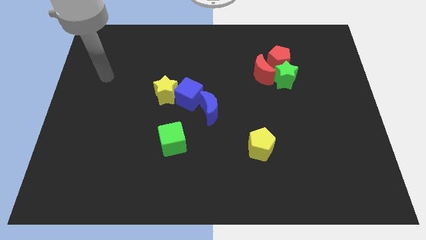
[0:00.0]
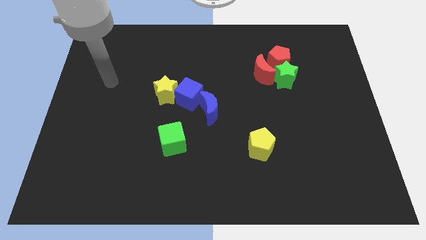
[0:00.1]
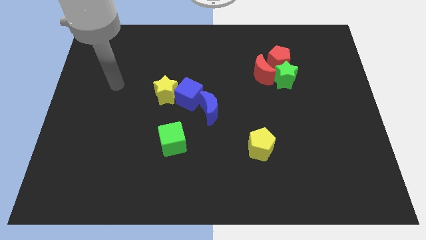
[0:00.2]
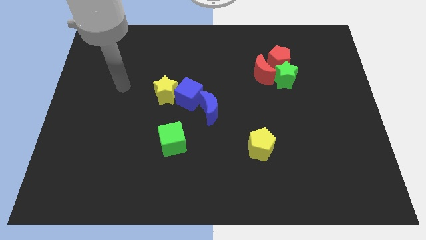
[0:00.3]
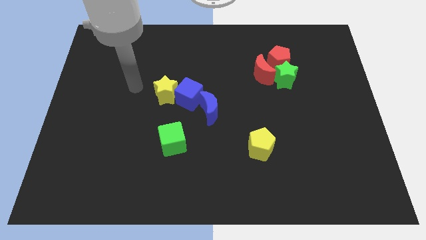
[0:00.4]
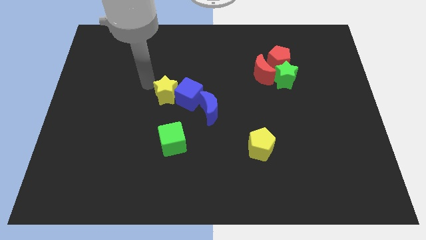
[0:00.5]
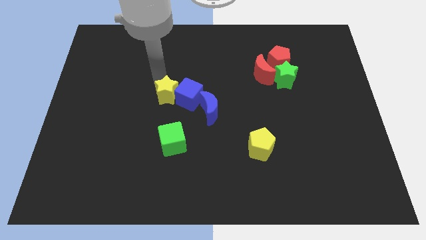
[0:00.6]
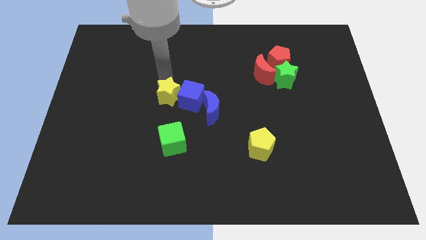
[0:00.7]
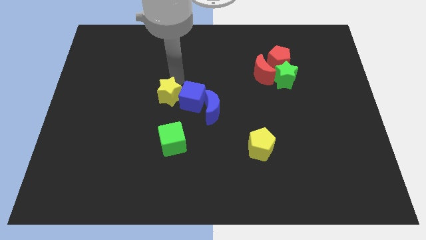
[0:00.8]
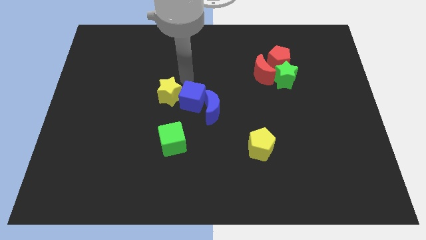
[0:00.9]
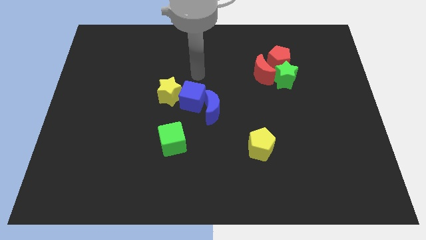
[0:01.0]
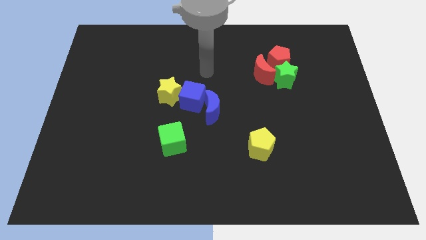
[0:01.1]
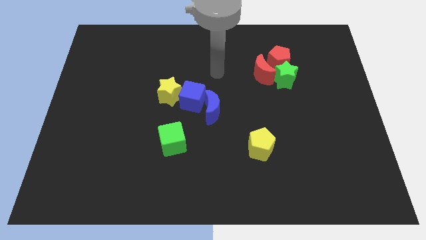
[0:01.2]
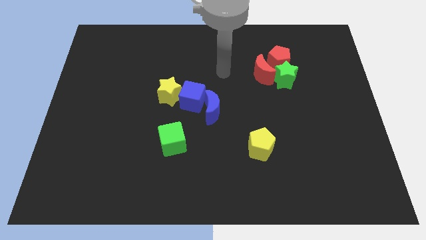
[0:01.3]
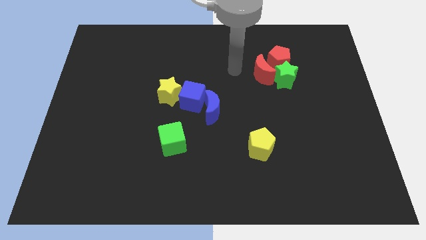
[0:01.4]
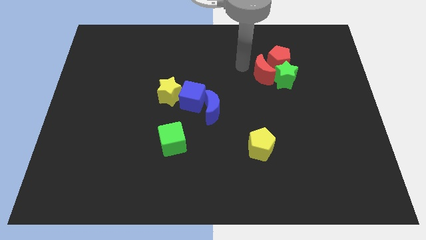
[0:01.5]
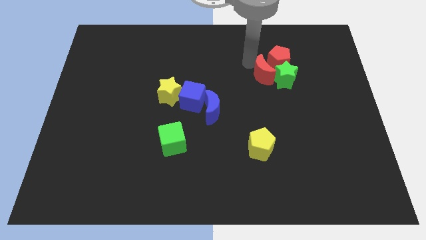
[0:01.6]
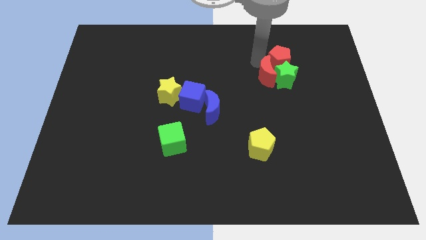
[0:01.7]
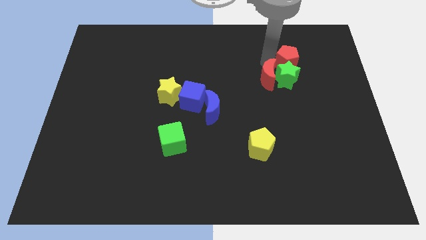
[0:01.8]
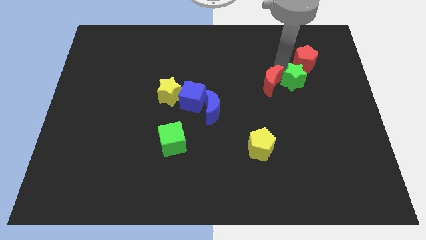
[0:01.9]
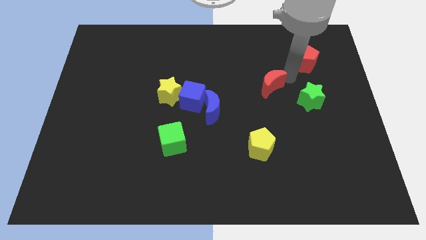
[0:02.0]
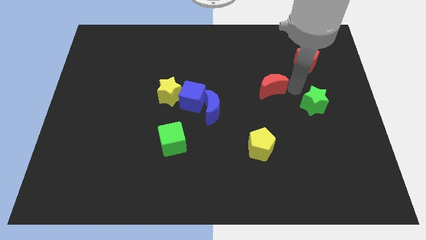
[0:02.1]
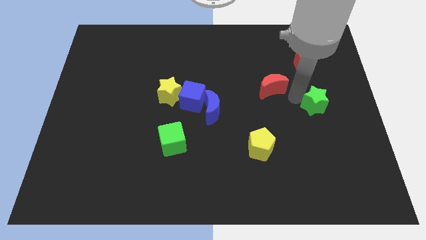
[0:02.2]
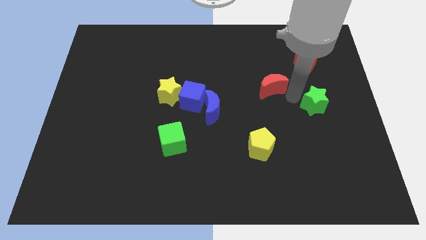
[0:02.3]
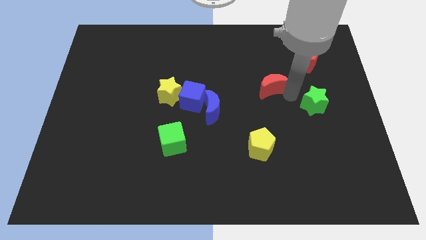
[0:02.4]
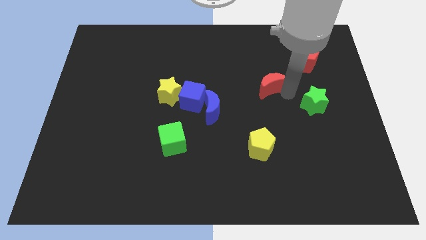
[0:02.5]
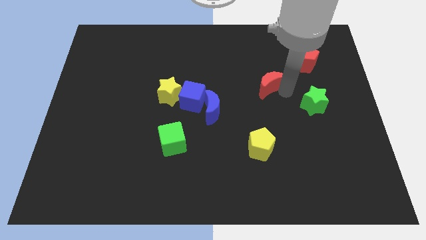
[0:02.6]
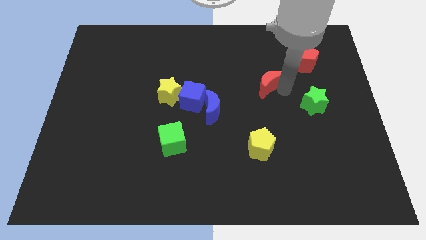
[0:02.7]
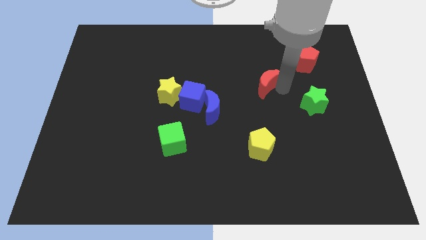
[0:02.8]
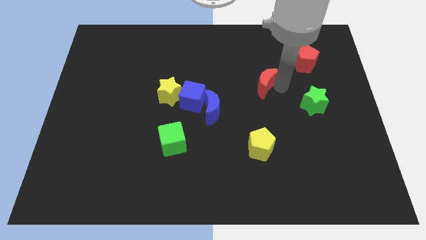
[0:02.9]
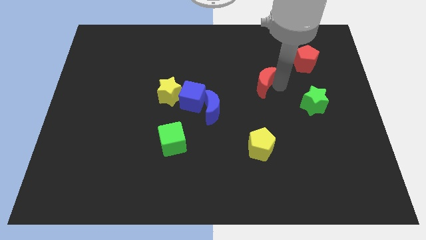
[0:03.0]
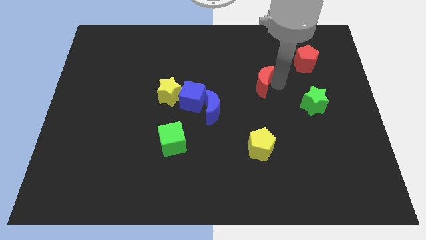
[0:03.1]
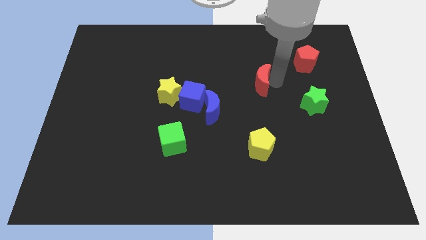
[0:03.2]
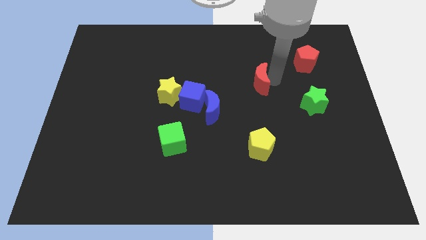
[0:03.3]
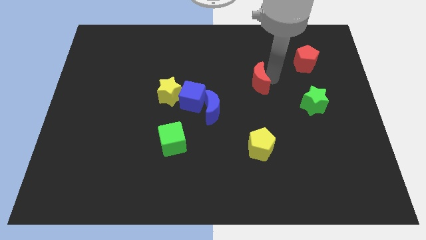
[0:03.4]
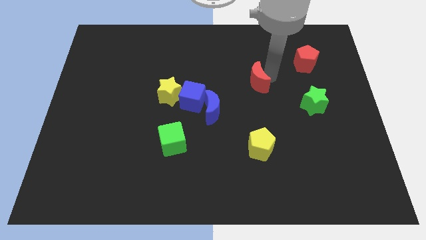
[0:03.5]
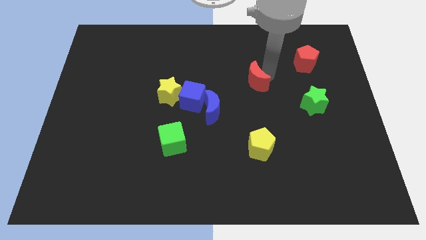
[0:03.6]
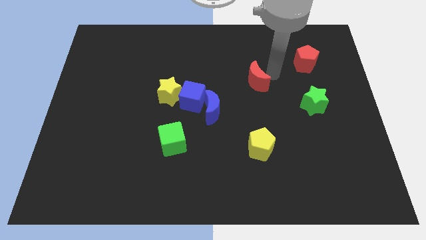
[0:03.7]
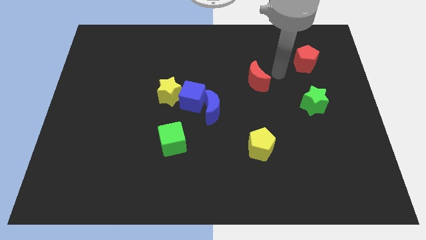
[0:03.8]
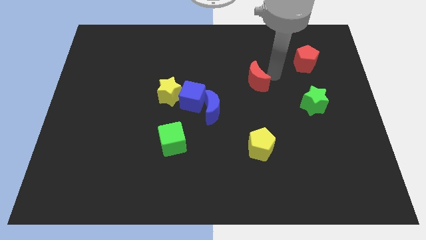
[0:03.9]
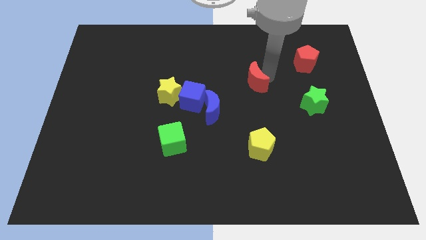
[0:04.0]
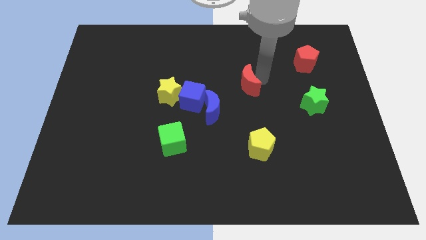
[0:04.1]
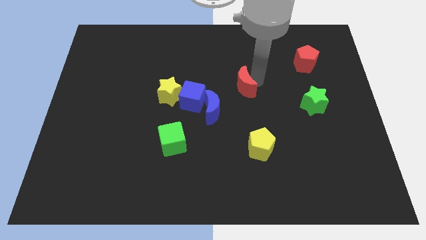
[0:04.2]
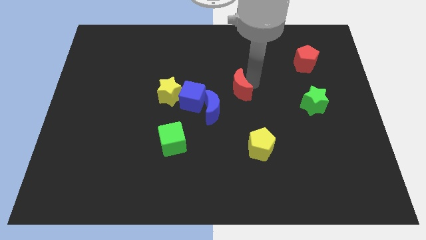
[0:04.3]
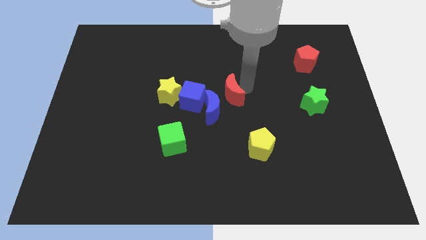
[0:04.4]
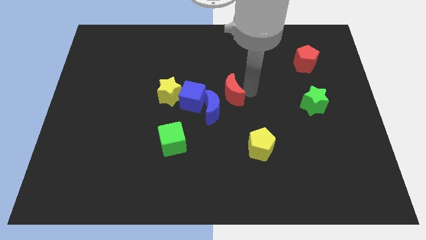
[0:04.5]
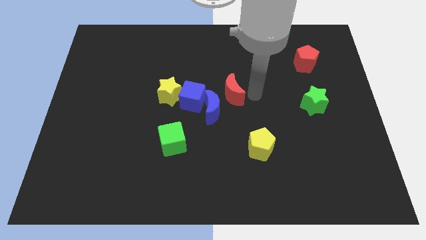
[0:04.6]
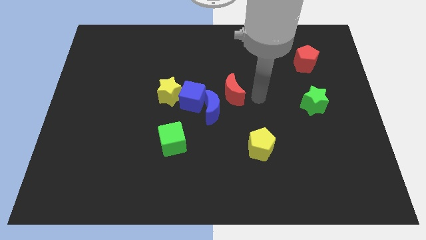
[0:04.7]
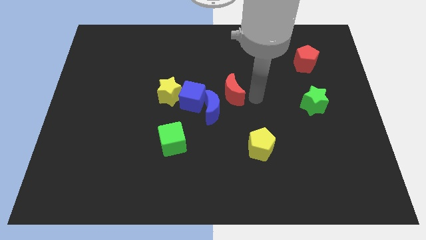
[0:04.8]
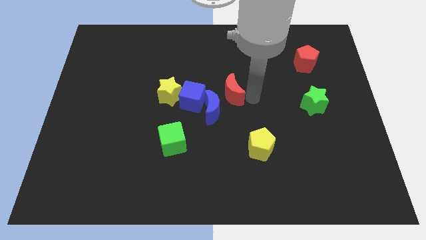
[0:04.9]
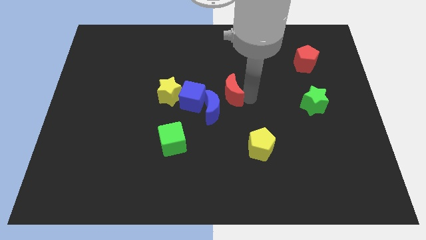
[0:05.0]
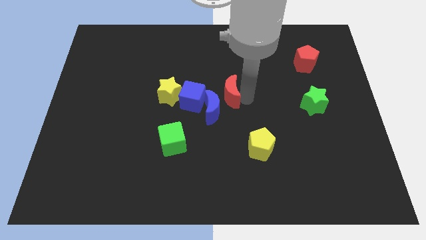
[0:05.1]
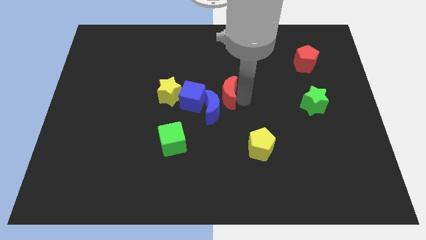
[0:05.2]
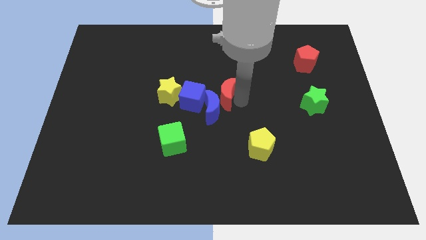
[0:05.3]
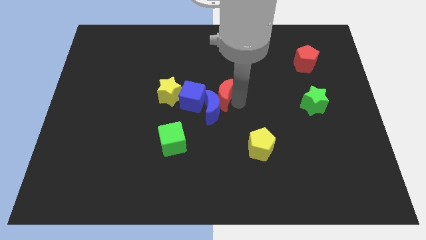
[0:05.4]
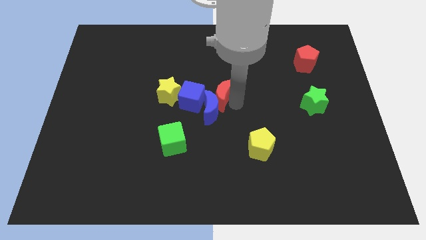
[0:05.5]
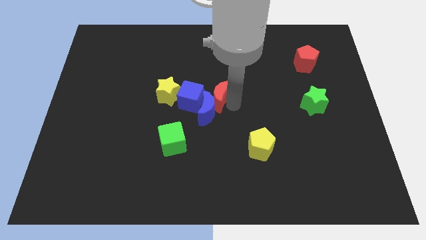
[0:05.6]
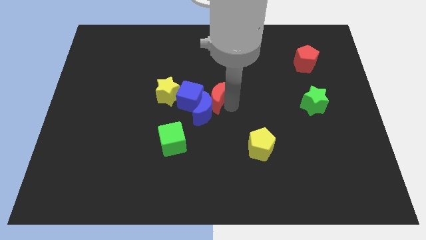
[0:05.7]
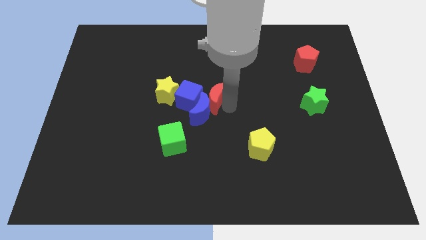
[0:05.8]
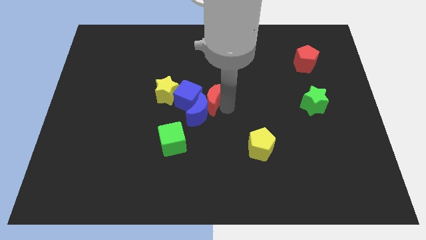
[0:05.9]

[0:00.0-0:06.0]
push the red moon close to the blue cube

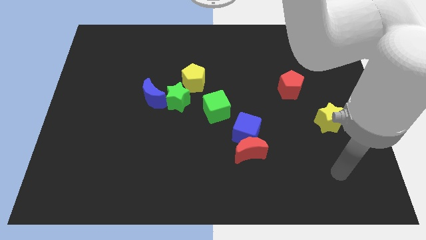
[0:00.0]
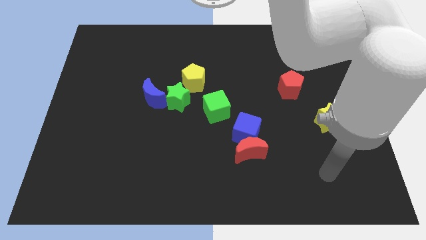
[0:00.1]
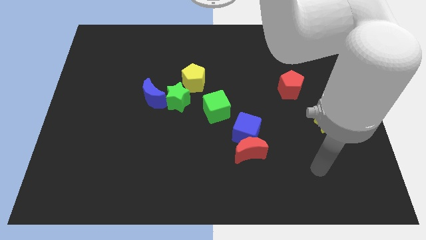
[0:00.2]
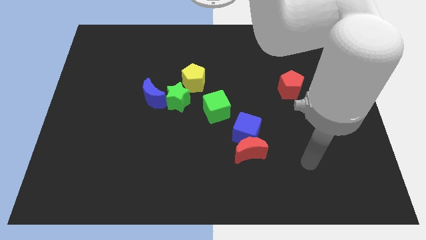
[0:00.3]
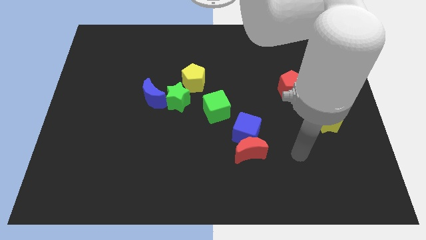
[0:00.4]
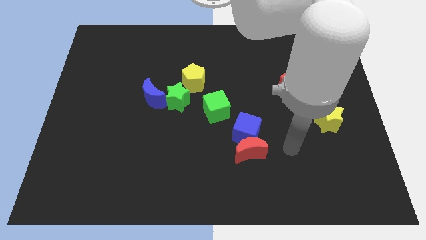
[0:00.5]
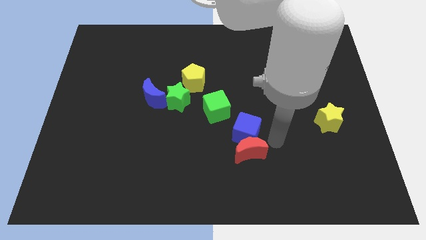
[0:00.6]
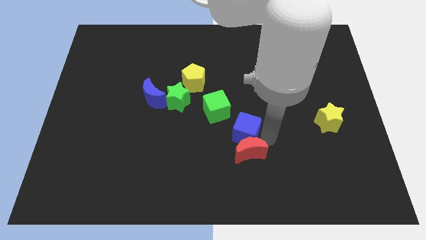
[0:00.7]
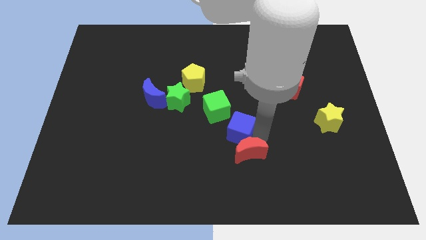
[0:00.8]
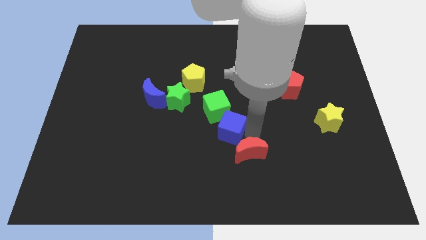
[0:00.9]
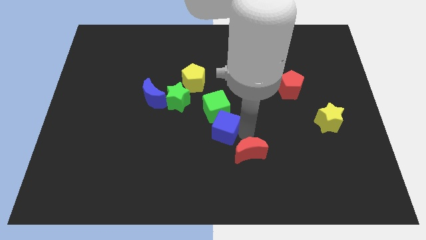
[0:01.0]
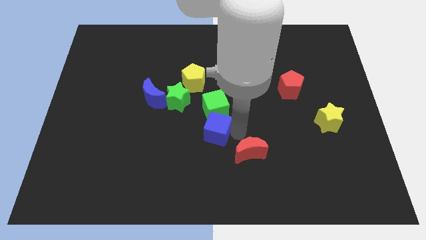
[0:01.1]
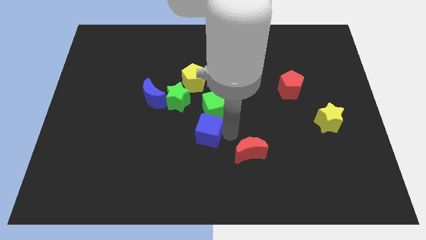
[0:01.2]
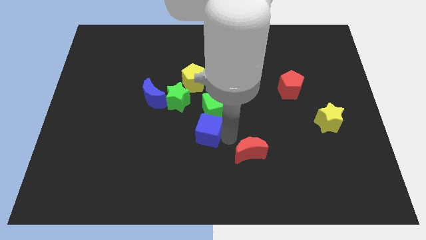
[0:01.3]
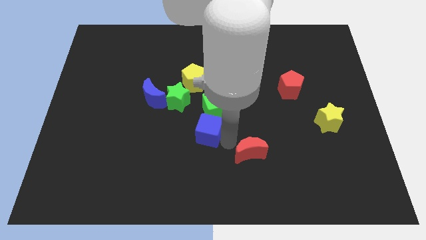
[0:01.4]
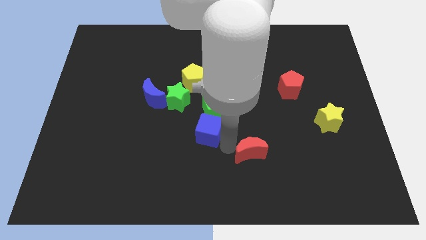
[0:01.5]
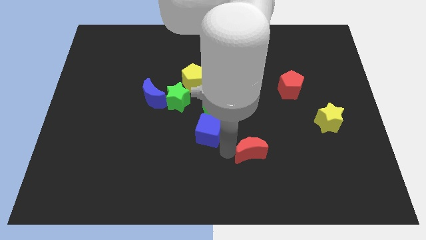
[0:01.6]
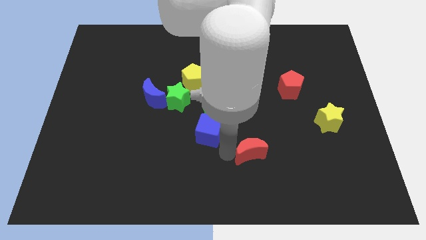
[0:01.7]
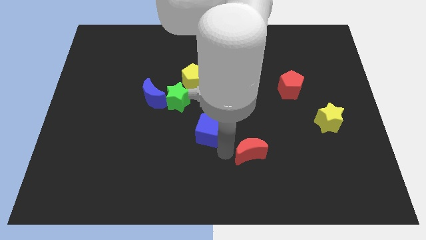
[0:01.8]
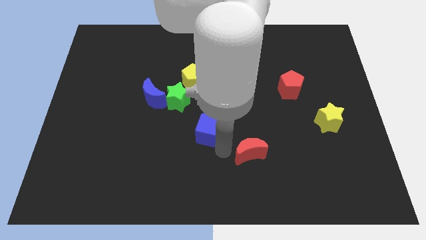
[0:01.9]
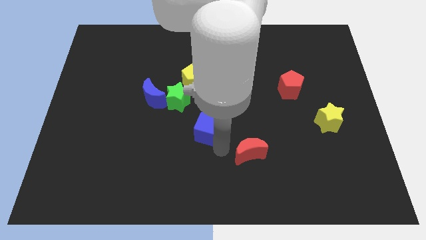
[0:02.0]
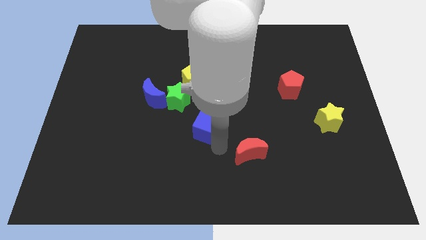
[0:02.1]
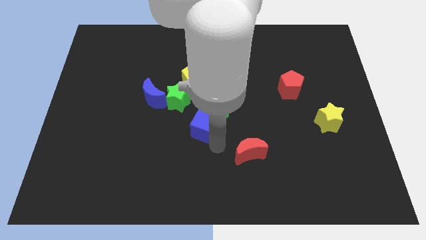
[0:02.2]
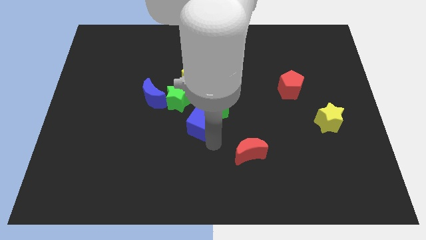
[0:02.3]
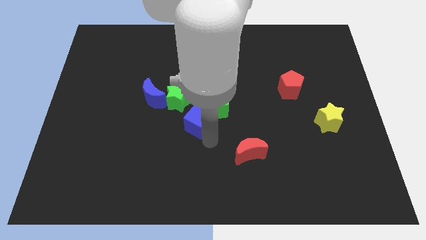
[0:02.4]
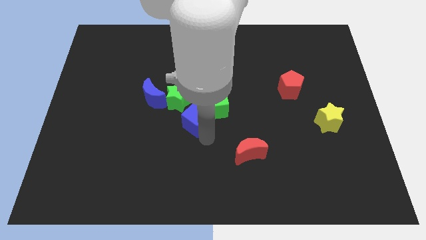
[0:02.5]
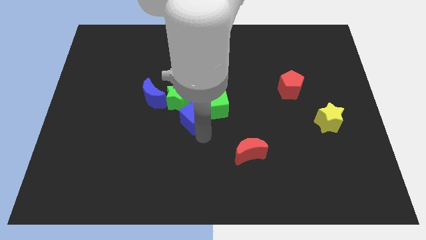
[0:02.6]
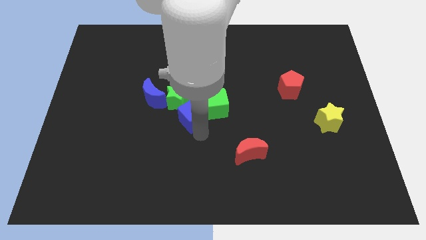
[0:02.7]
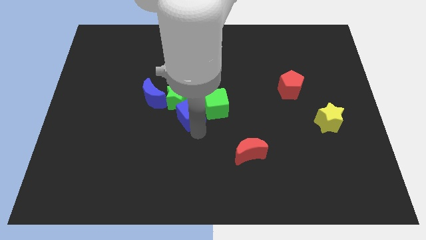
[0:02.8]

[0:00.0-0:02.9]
push the blue cube next to the green star
